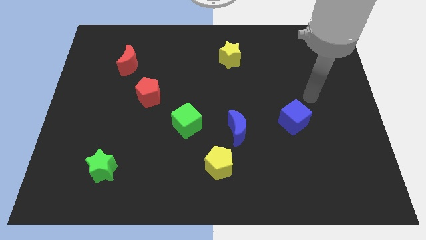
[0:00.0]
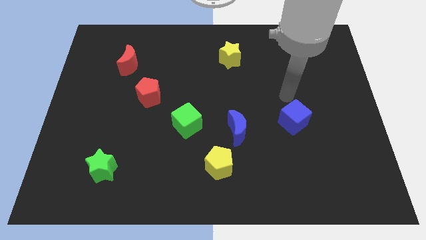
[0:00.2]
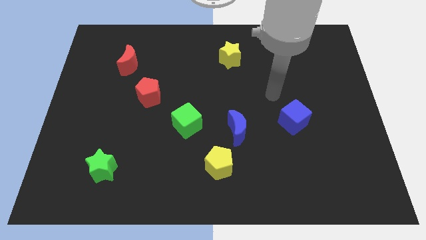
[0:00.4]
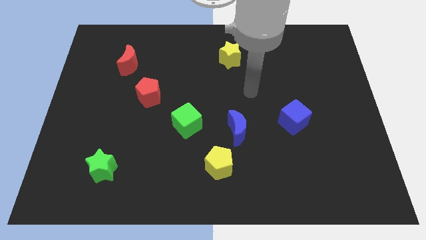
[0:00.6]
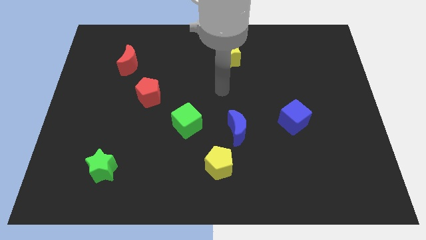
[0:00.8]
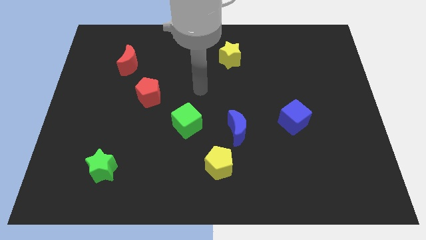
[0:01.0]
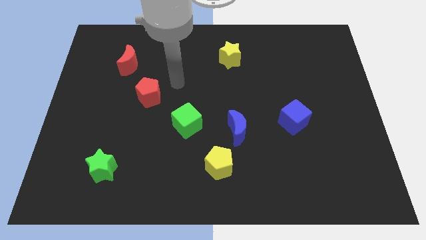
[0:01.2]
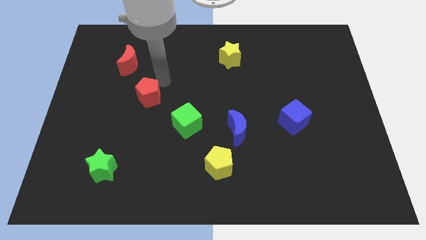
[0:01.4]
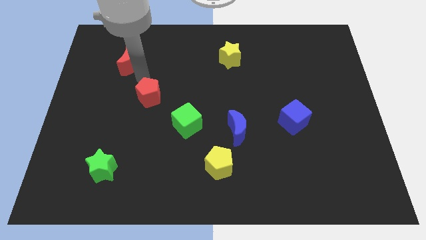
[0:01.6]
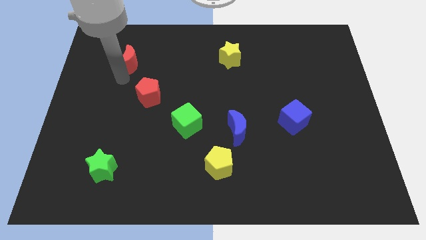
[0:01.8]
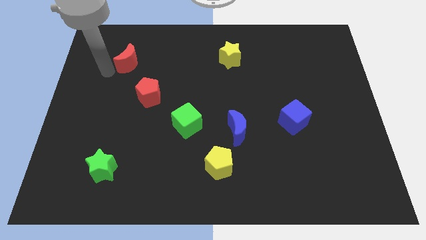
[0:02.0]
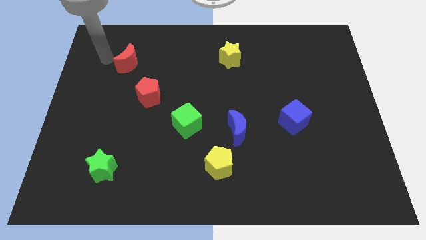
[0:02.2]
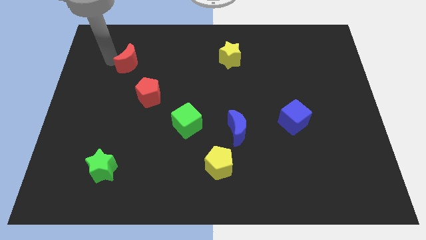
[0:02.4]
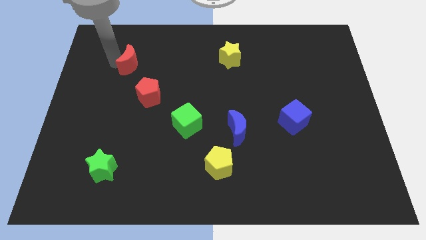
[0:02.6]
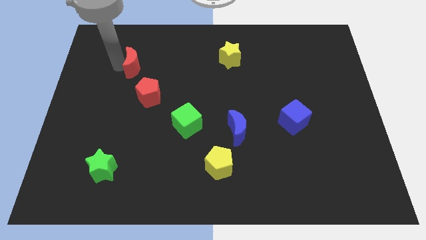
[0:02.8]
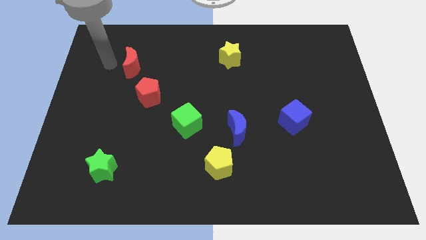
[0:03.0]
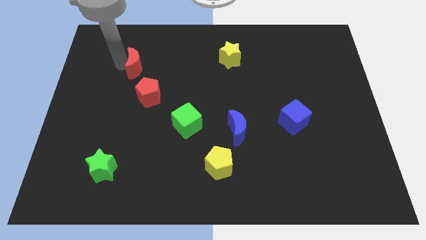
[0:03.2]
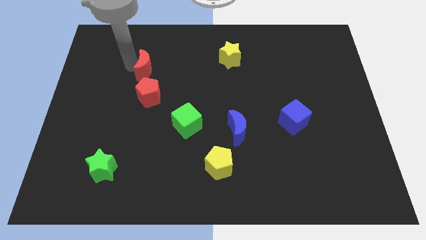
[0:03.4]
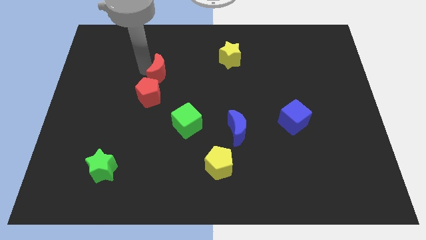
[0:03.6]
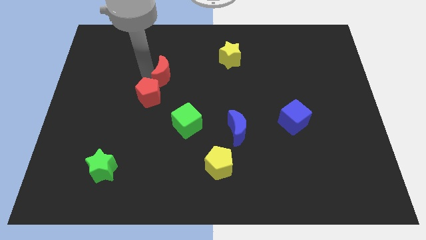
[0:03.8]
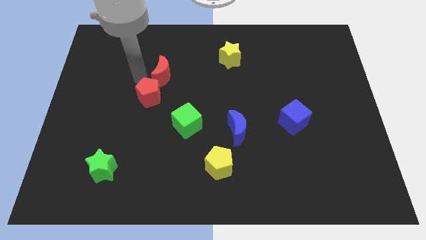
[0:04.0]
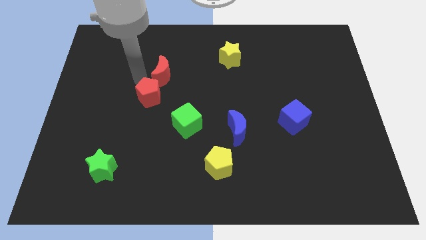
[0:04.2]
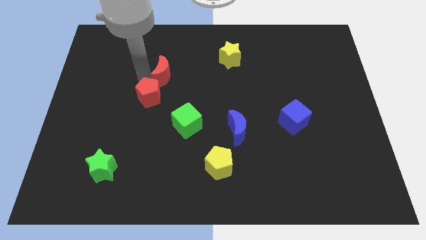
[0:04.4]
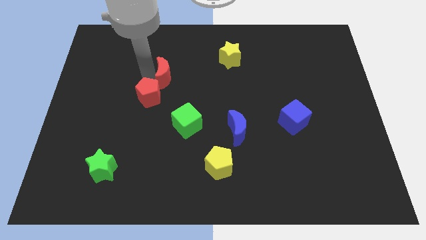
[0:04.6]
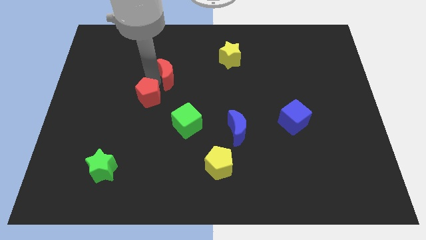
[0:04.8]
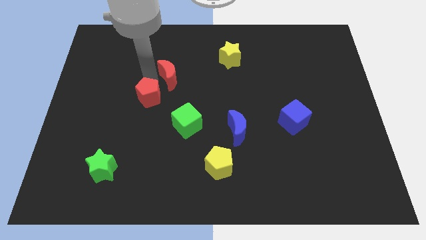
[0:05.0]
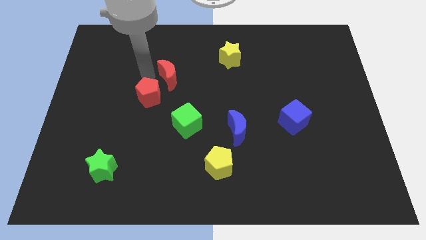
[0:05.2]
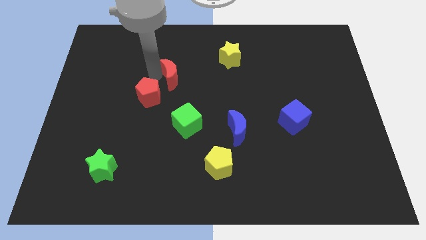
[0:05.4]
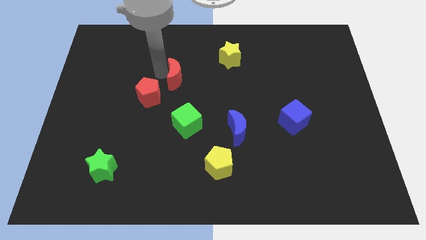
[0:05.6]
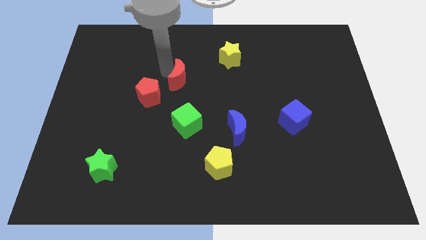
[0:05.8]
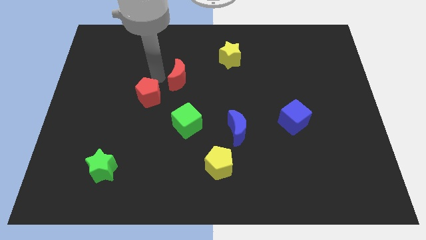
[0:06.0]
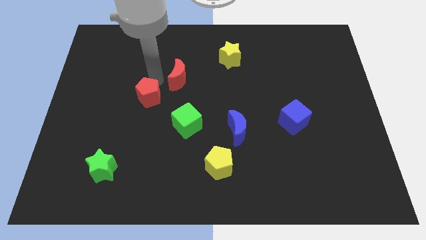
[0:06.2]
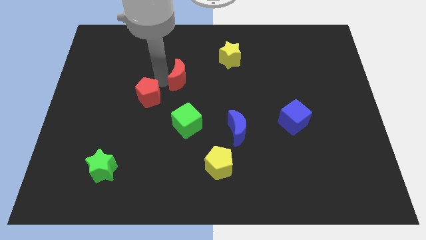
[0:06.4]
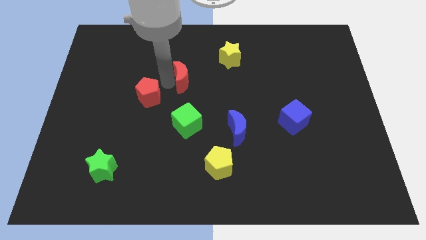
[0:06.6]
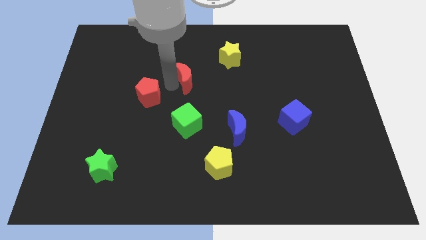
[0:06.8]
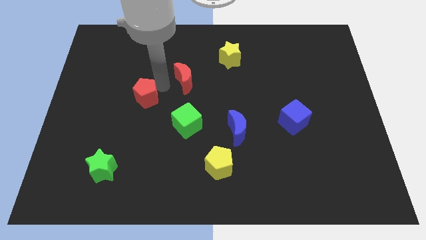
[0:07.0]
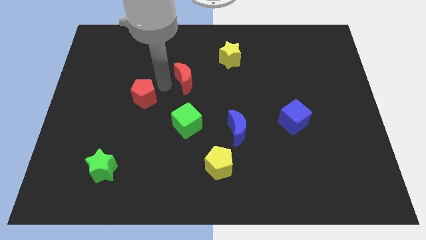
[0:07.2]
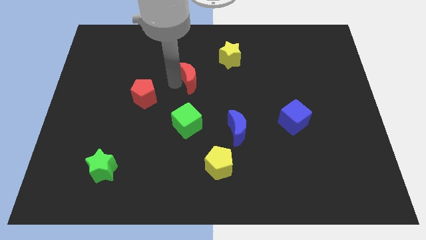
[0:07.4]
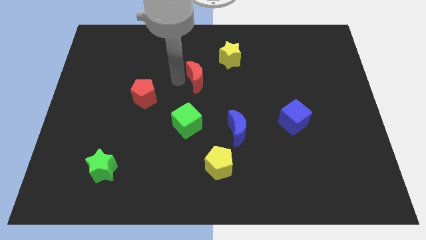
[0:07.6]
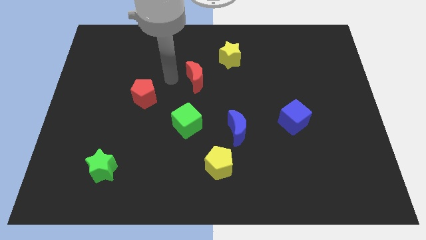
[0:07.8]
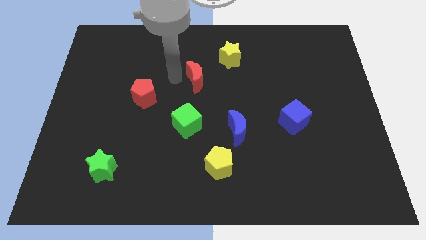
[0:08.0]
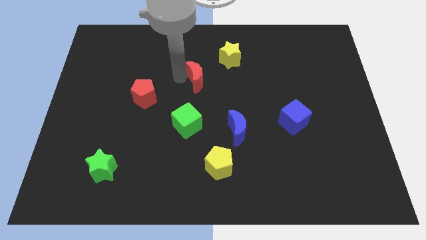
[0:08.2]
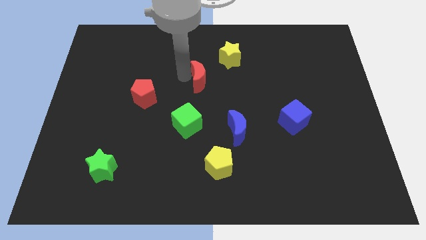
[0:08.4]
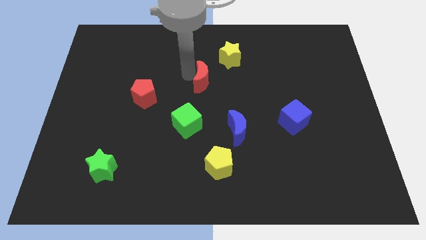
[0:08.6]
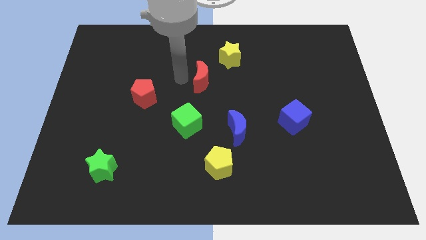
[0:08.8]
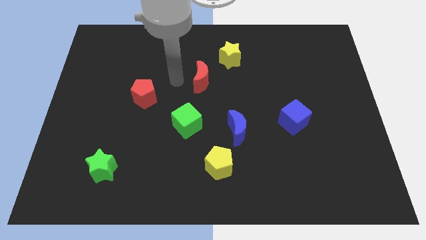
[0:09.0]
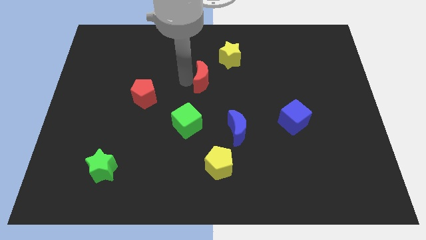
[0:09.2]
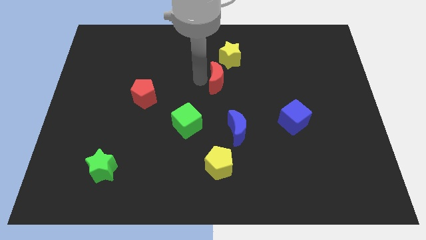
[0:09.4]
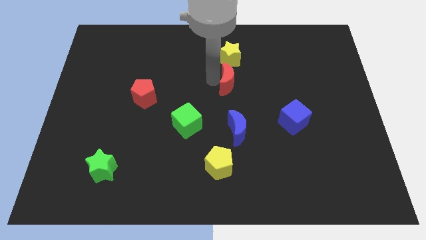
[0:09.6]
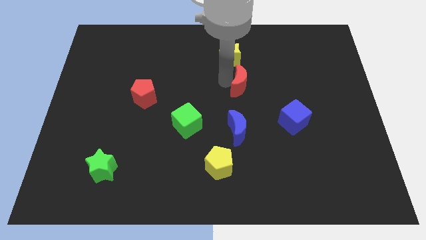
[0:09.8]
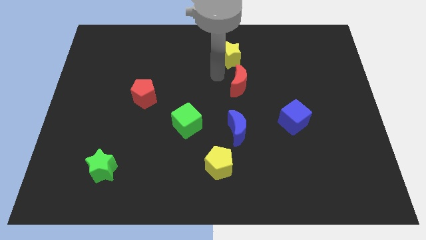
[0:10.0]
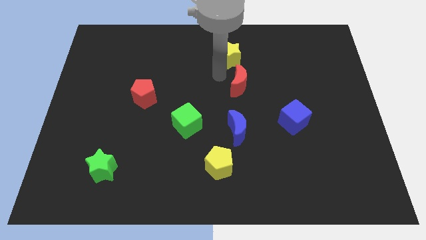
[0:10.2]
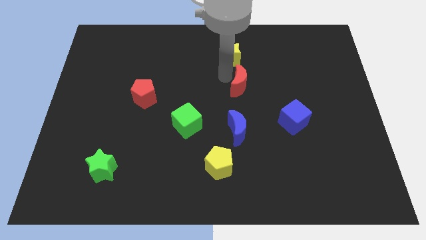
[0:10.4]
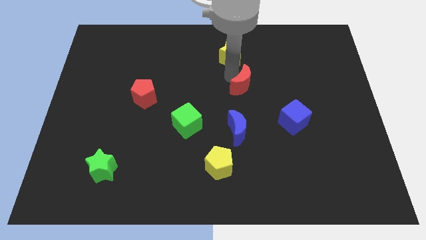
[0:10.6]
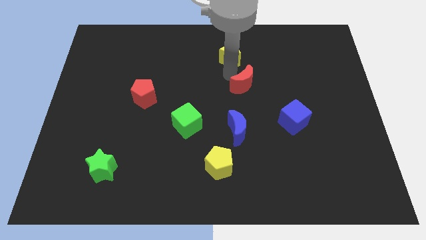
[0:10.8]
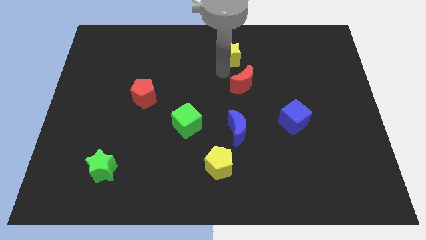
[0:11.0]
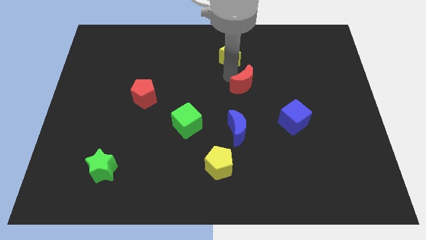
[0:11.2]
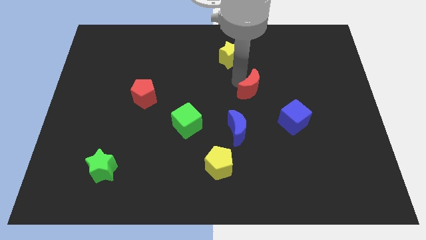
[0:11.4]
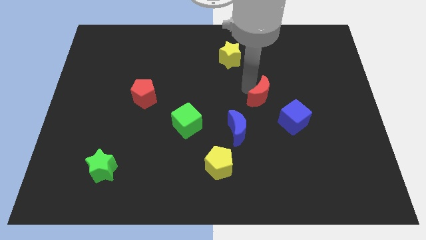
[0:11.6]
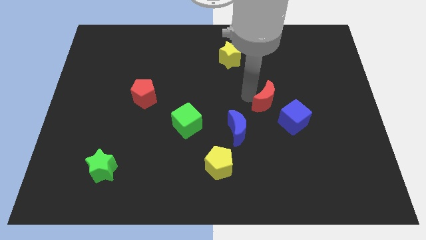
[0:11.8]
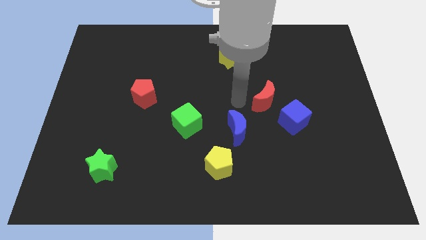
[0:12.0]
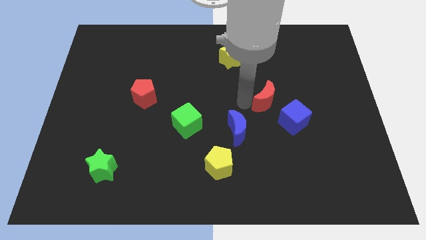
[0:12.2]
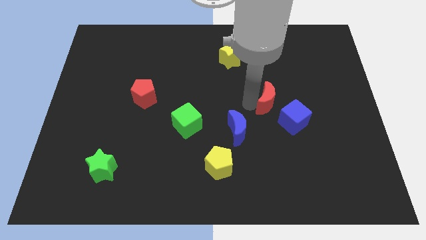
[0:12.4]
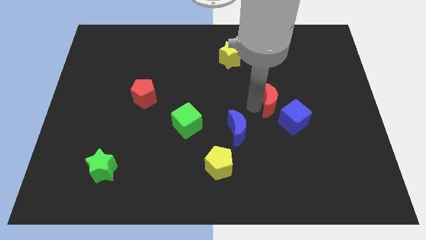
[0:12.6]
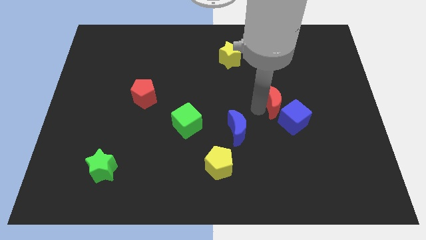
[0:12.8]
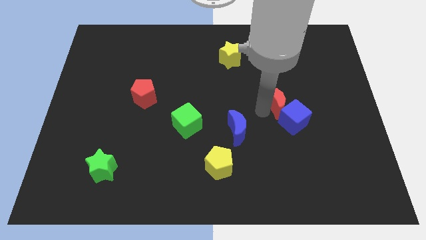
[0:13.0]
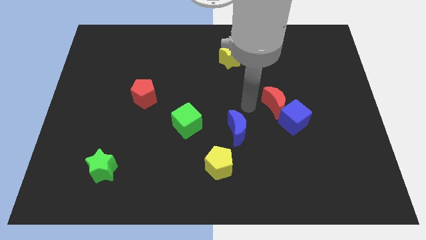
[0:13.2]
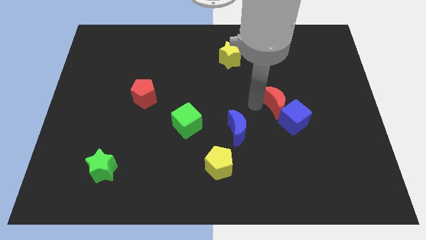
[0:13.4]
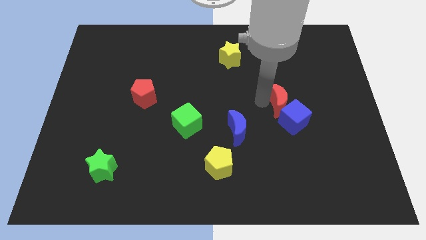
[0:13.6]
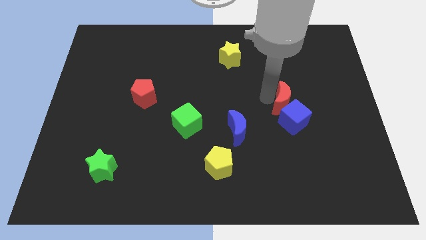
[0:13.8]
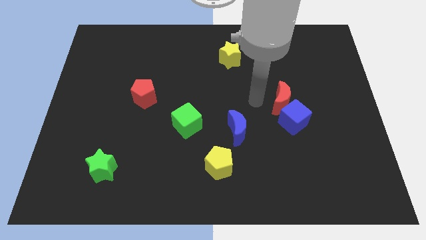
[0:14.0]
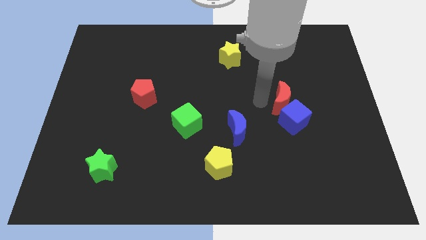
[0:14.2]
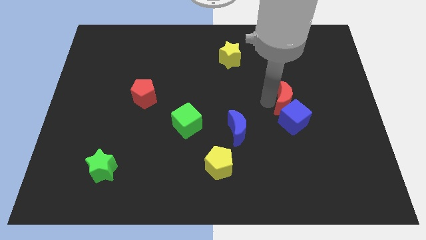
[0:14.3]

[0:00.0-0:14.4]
slide the red moon diagonally up and to the right of the blue cube
